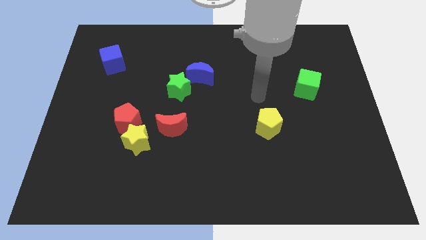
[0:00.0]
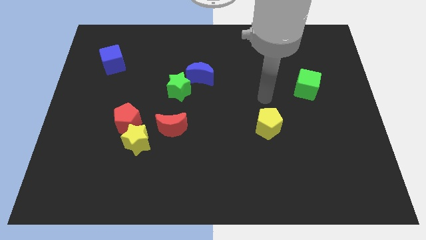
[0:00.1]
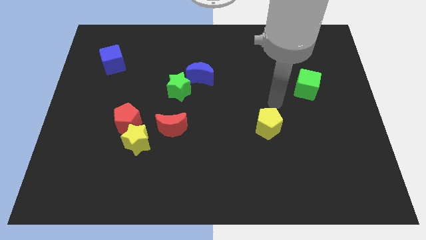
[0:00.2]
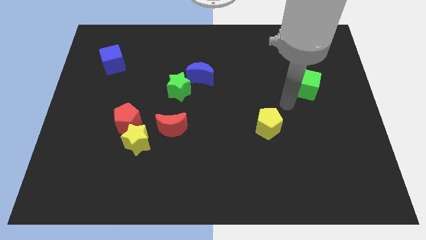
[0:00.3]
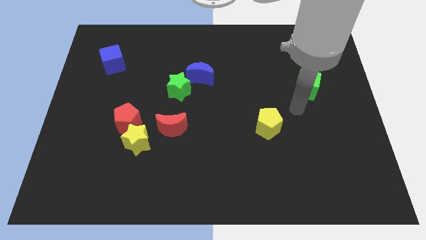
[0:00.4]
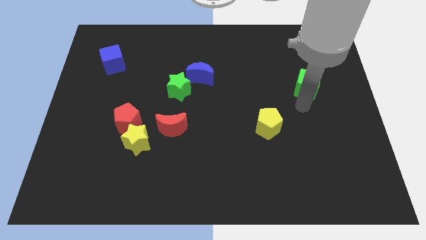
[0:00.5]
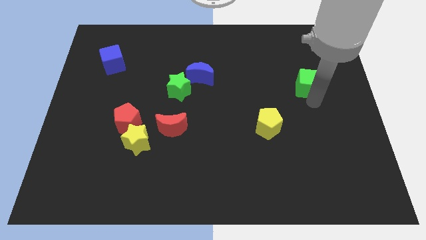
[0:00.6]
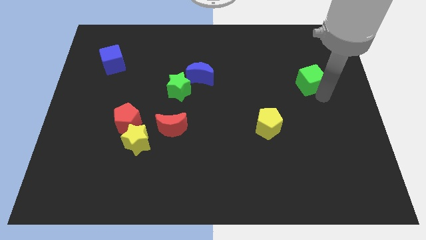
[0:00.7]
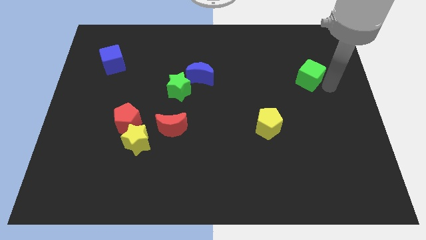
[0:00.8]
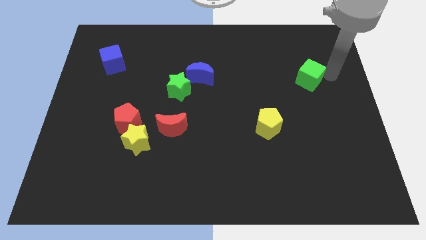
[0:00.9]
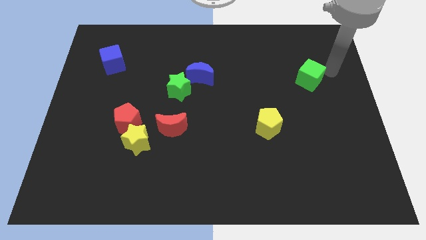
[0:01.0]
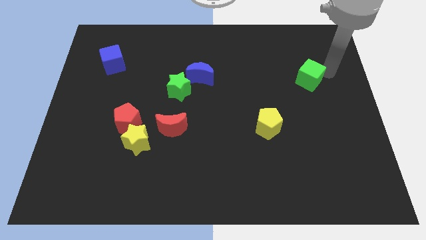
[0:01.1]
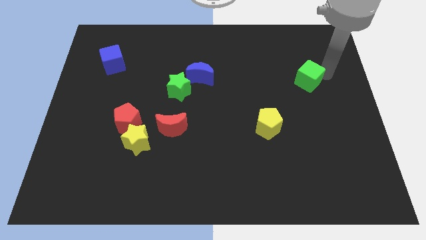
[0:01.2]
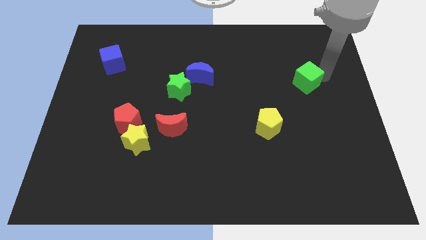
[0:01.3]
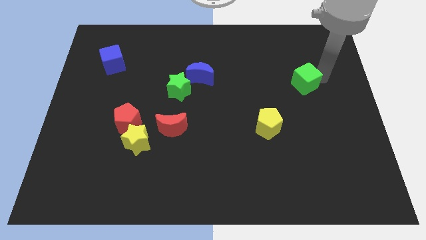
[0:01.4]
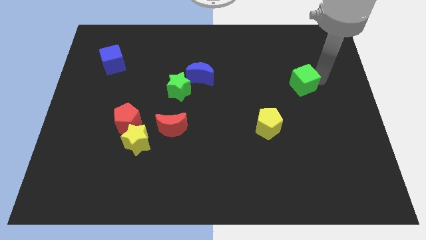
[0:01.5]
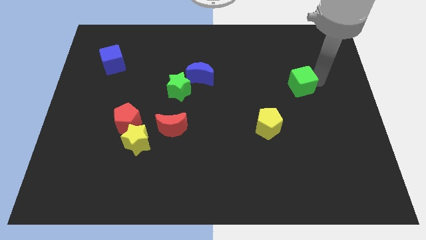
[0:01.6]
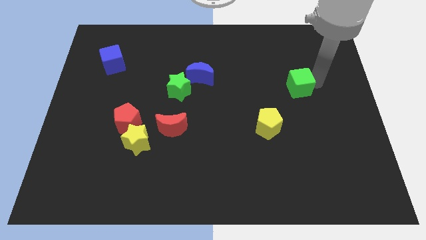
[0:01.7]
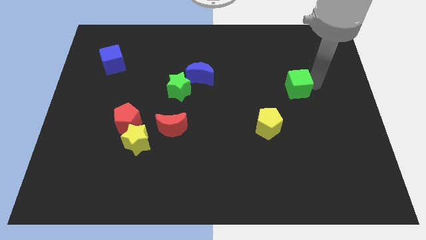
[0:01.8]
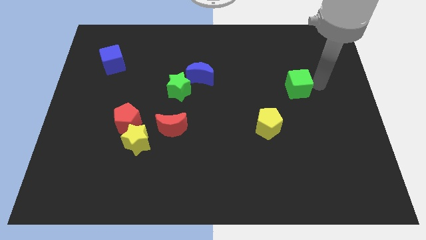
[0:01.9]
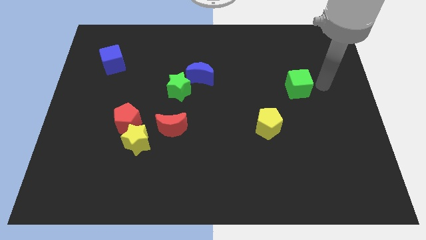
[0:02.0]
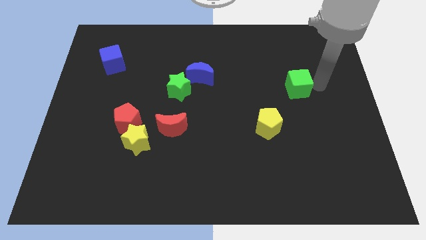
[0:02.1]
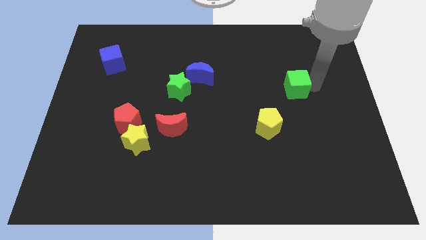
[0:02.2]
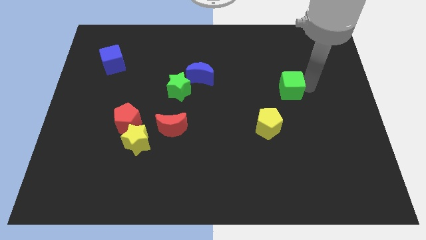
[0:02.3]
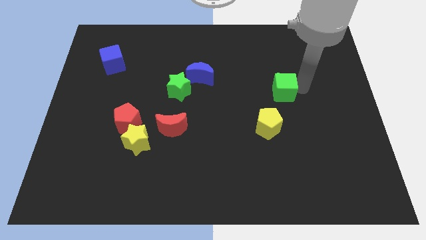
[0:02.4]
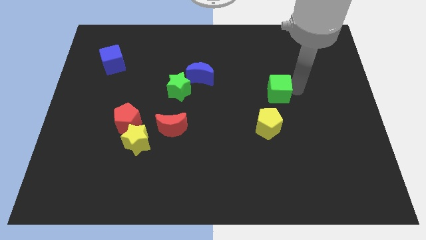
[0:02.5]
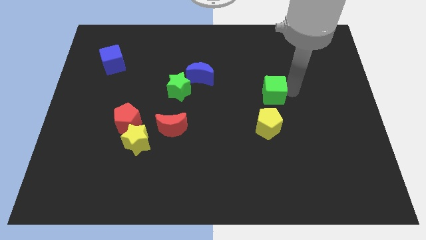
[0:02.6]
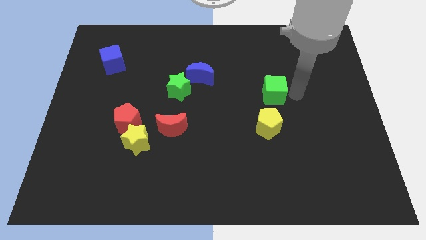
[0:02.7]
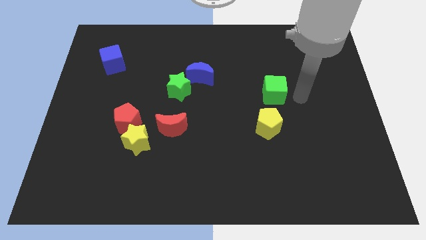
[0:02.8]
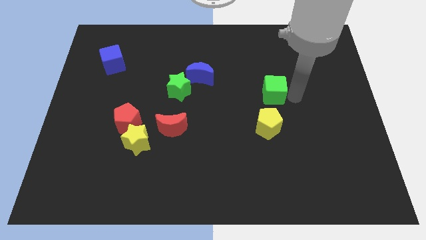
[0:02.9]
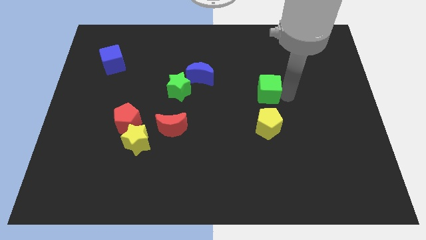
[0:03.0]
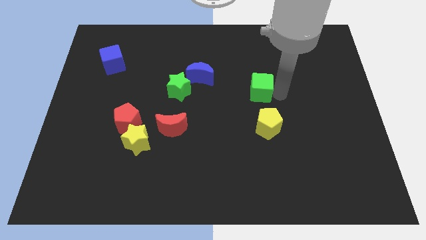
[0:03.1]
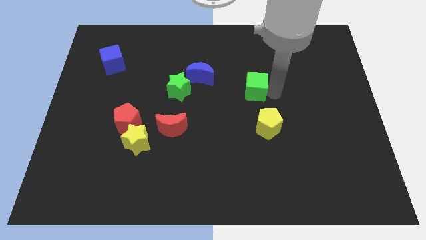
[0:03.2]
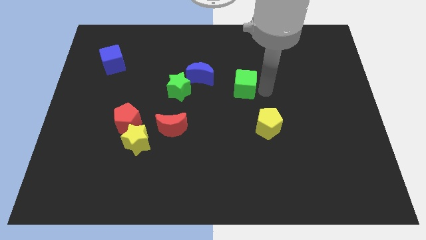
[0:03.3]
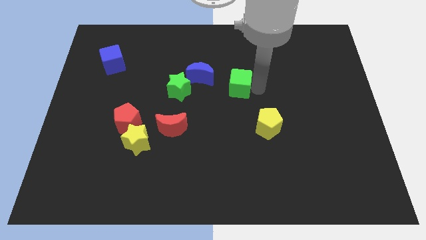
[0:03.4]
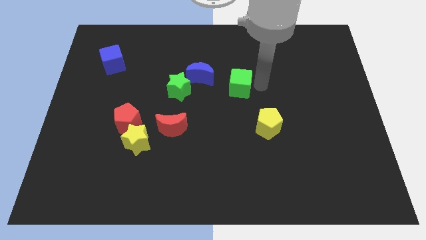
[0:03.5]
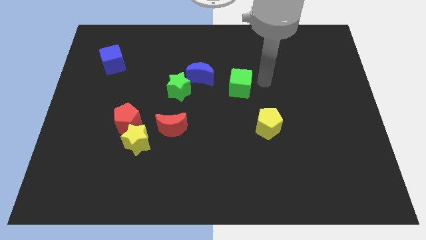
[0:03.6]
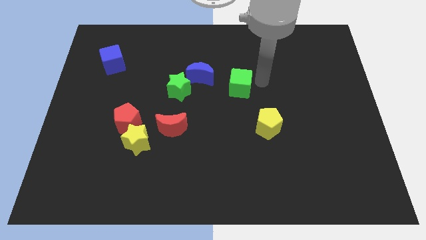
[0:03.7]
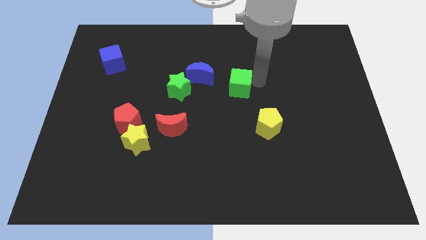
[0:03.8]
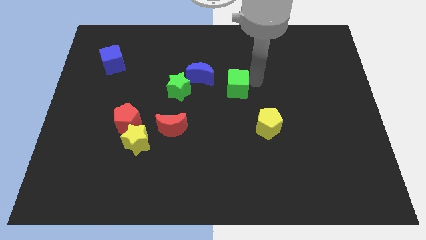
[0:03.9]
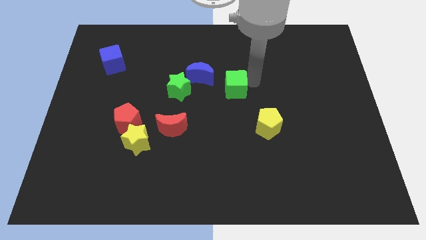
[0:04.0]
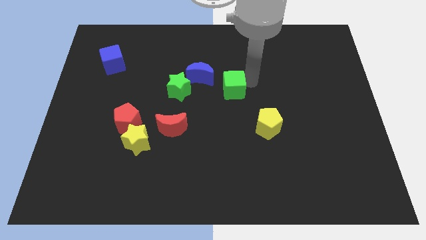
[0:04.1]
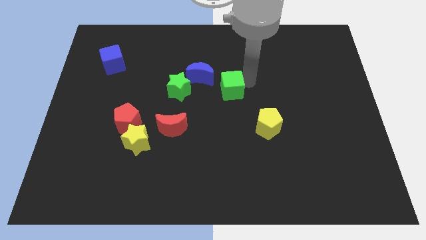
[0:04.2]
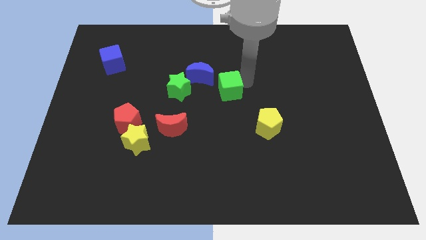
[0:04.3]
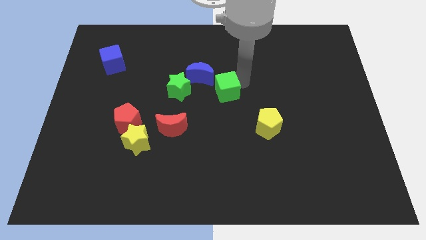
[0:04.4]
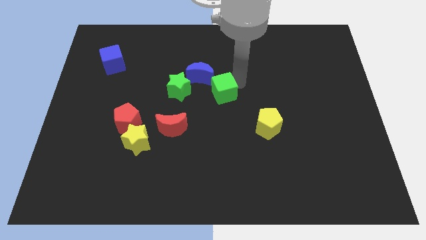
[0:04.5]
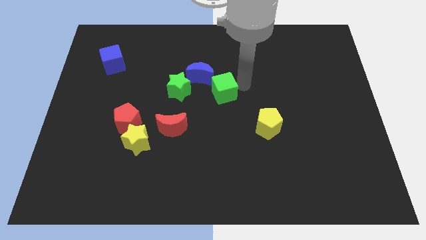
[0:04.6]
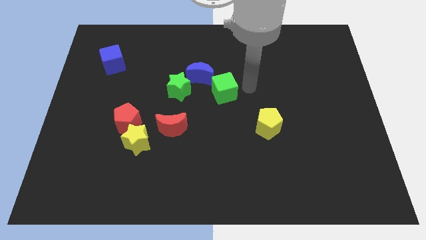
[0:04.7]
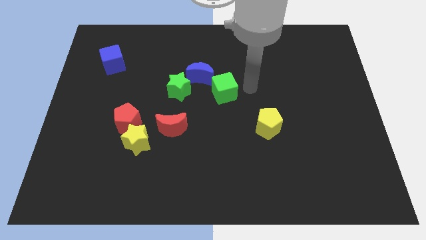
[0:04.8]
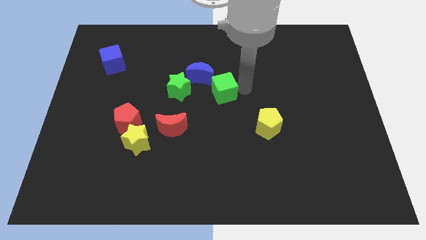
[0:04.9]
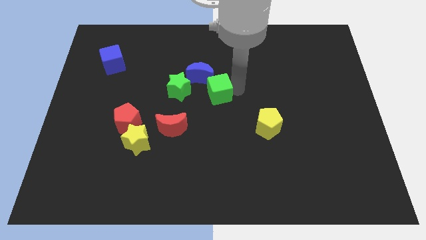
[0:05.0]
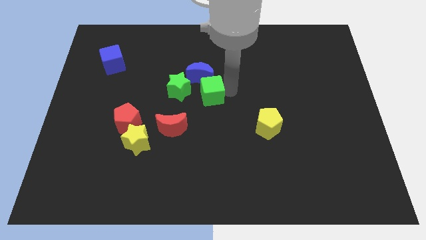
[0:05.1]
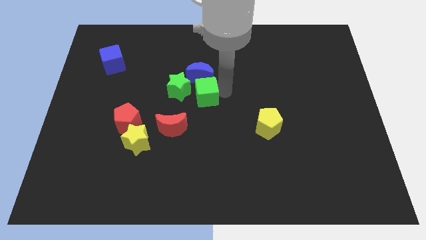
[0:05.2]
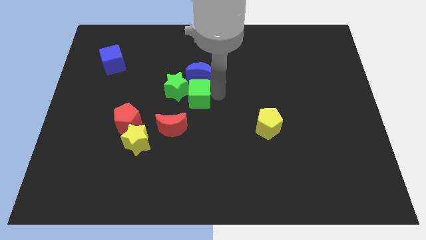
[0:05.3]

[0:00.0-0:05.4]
put the green cube towards the green star

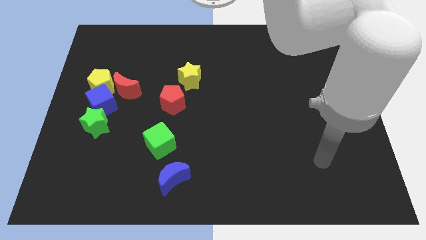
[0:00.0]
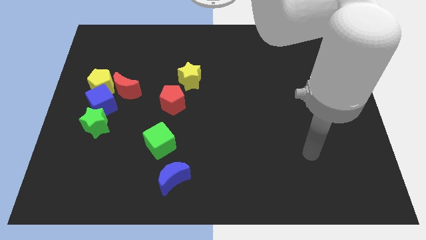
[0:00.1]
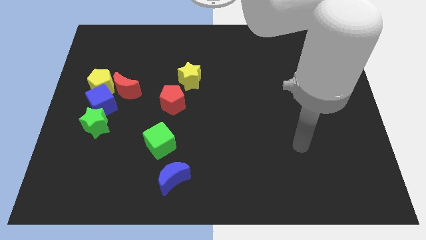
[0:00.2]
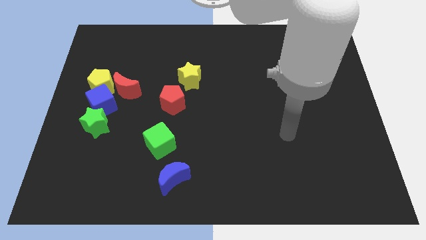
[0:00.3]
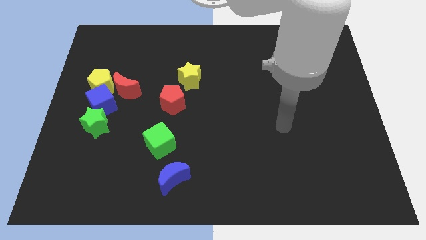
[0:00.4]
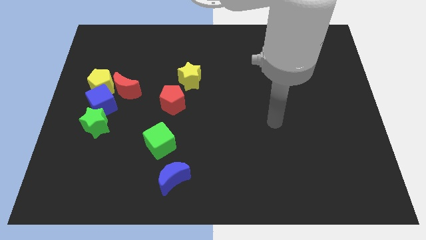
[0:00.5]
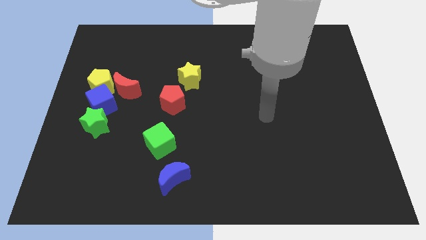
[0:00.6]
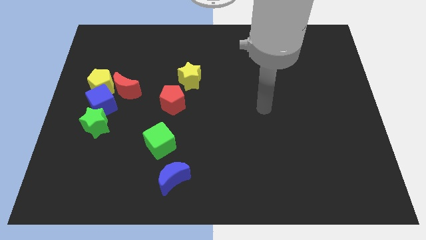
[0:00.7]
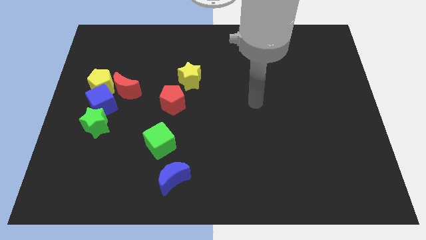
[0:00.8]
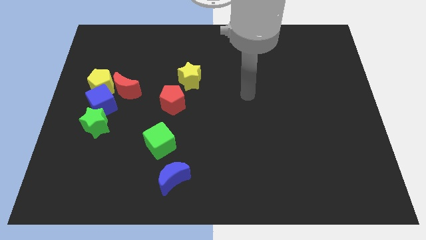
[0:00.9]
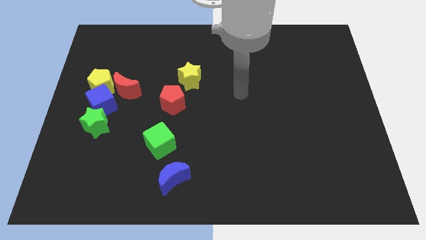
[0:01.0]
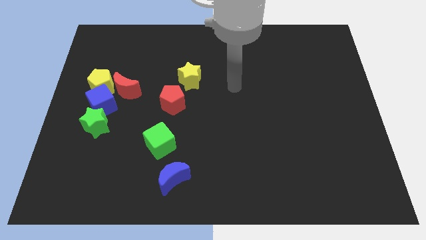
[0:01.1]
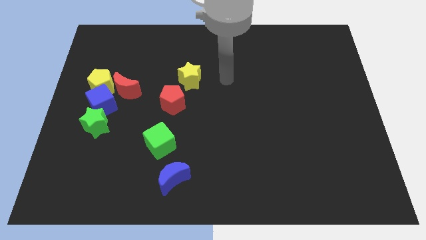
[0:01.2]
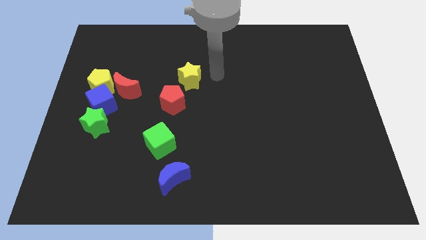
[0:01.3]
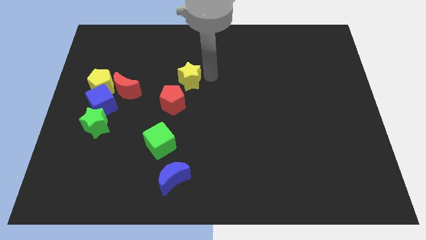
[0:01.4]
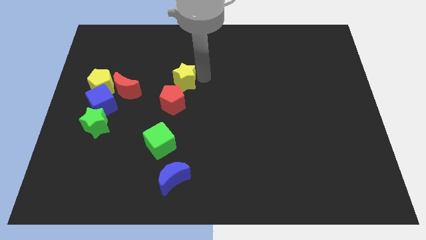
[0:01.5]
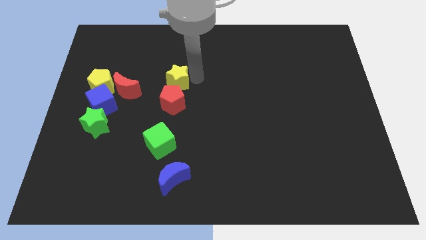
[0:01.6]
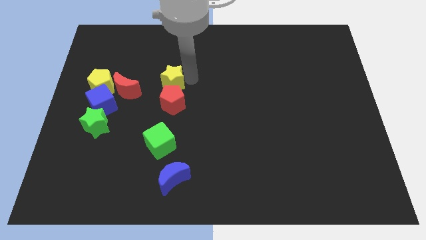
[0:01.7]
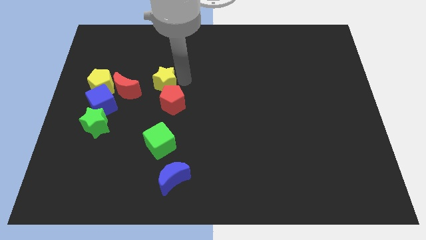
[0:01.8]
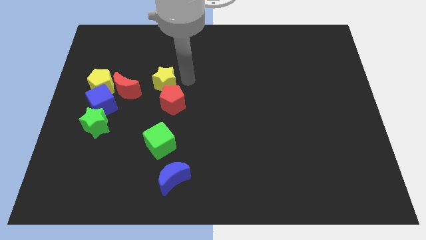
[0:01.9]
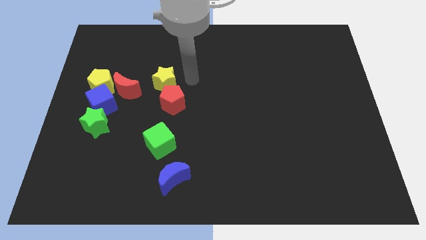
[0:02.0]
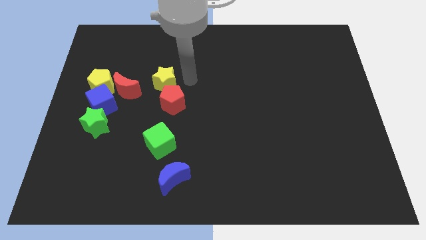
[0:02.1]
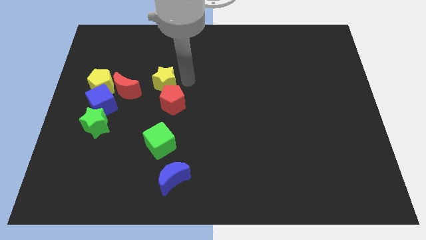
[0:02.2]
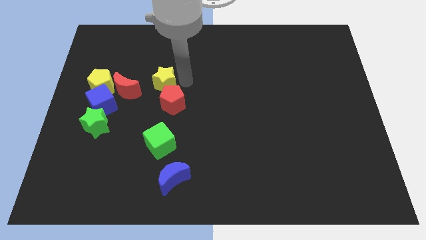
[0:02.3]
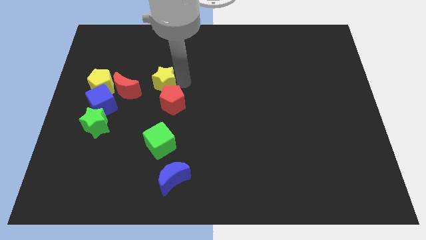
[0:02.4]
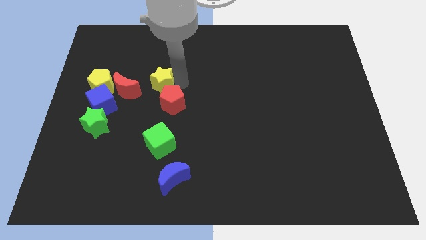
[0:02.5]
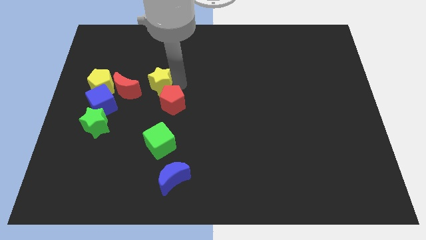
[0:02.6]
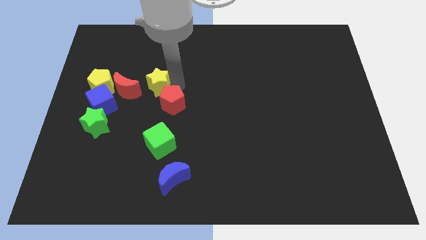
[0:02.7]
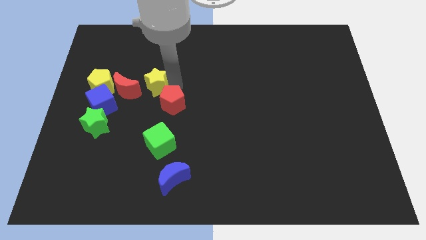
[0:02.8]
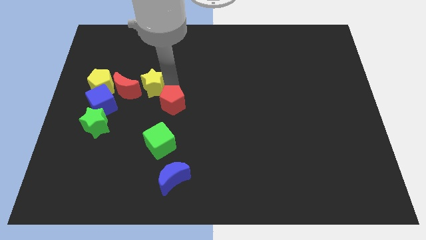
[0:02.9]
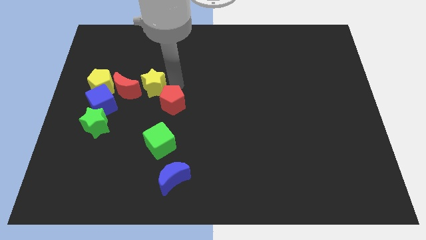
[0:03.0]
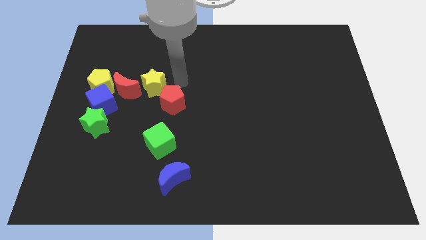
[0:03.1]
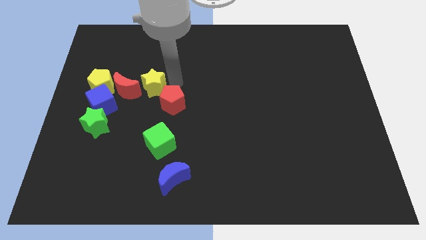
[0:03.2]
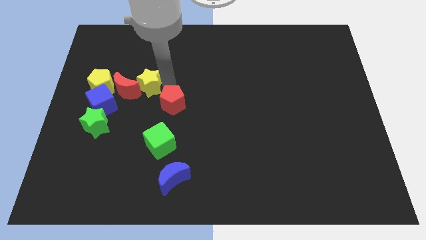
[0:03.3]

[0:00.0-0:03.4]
slide the yellow star towards the red moon
